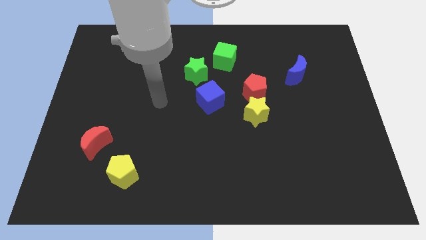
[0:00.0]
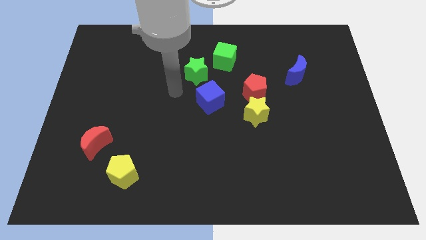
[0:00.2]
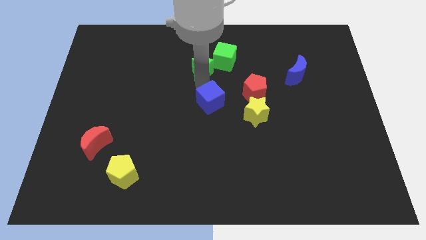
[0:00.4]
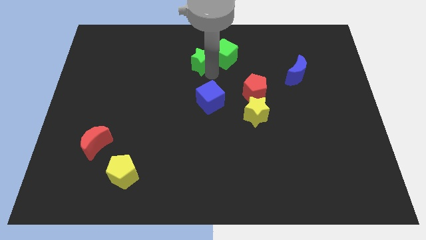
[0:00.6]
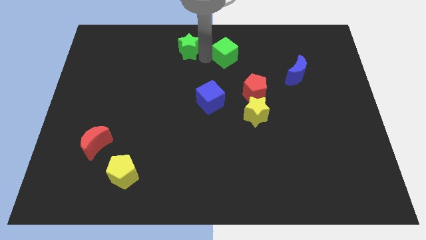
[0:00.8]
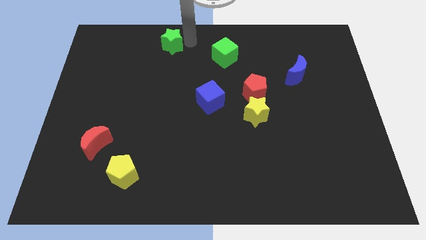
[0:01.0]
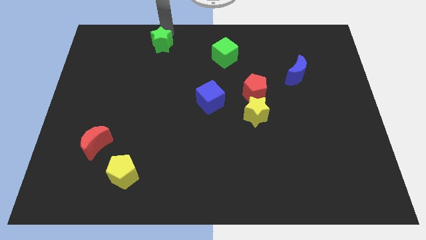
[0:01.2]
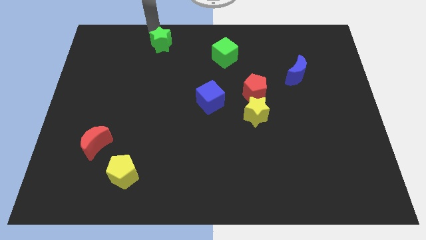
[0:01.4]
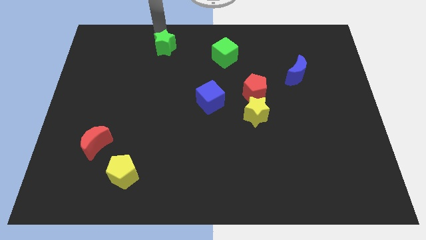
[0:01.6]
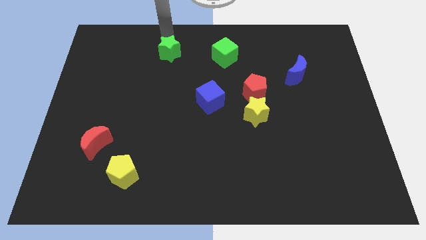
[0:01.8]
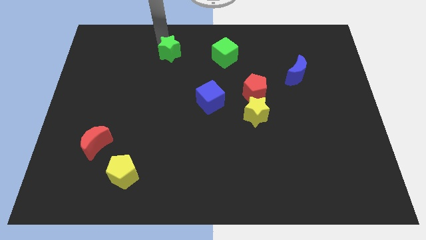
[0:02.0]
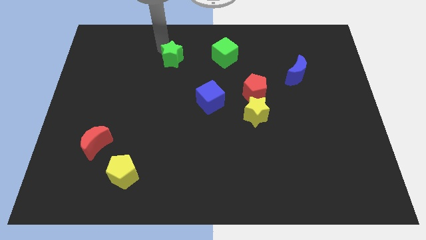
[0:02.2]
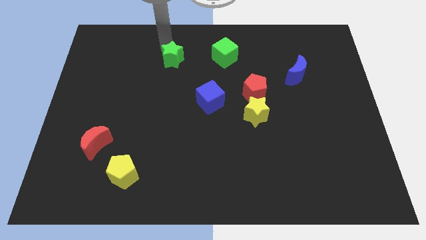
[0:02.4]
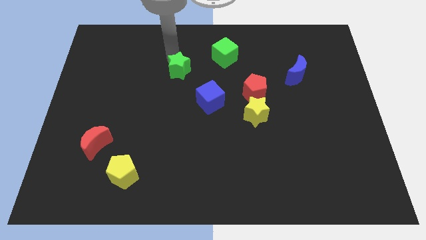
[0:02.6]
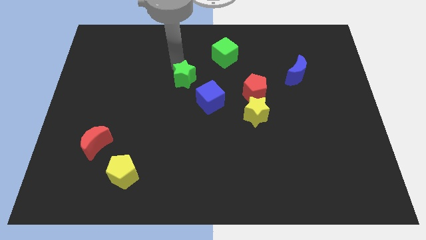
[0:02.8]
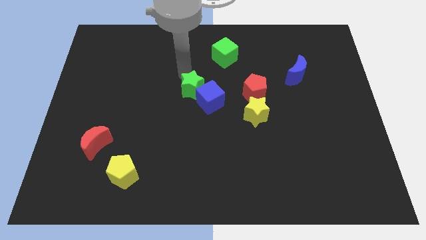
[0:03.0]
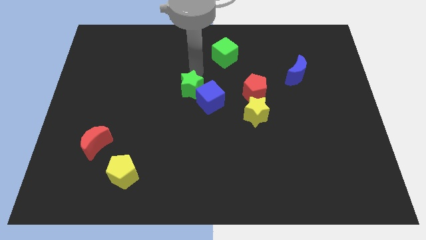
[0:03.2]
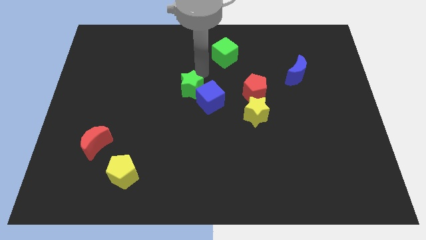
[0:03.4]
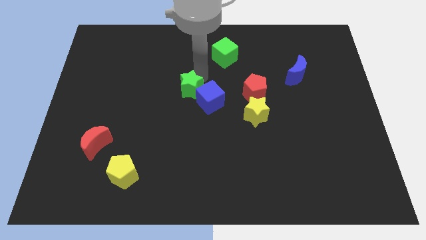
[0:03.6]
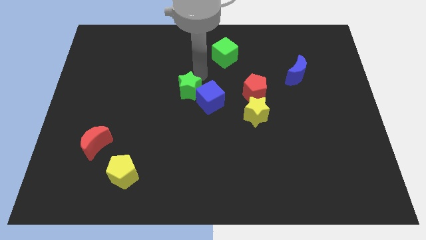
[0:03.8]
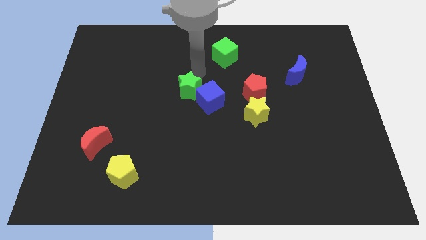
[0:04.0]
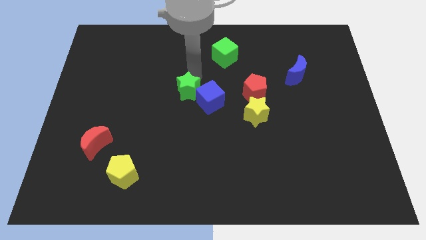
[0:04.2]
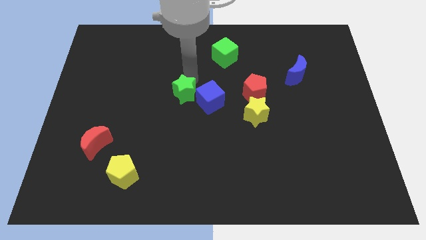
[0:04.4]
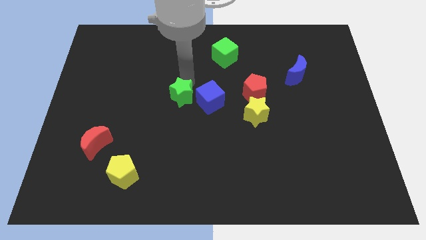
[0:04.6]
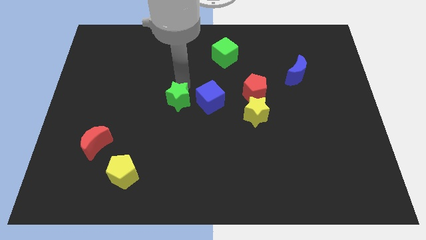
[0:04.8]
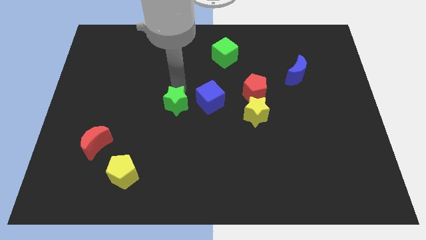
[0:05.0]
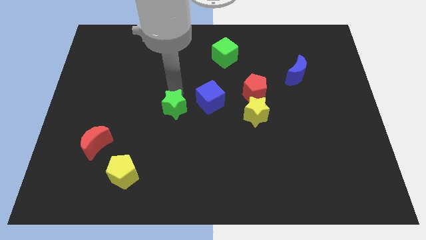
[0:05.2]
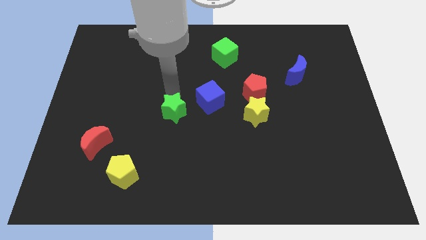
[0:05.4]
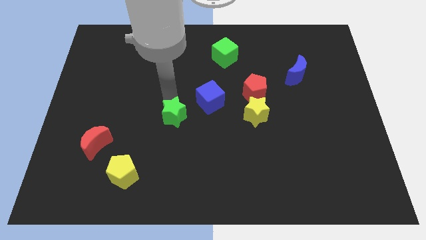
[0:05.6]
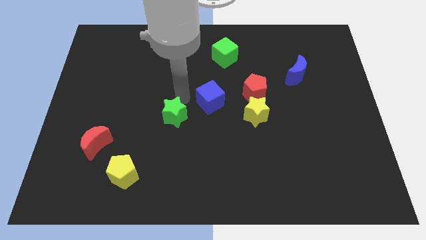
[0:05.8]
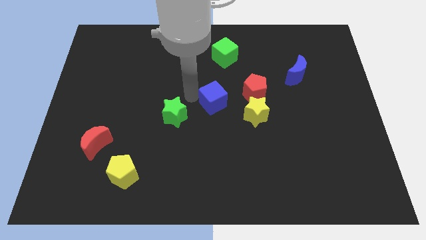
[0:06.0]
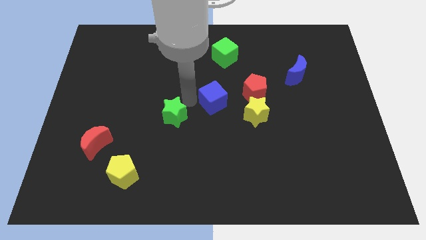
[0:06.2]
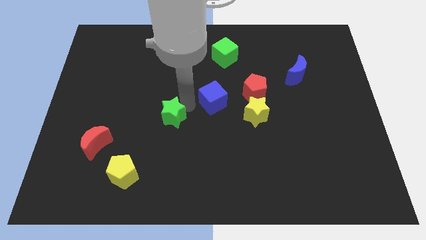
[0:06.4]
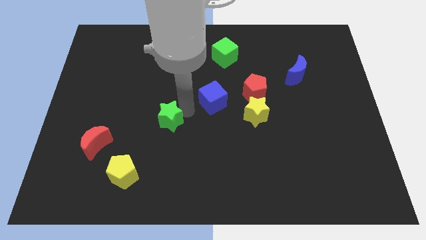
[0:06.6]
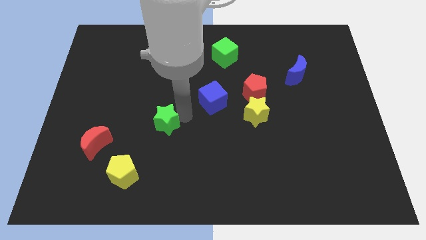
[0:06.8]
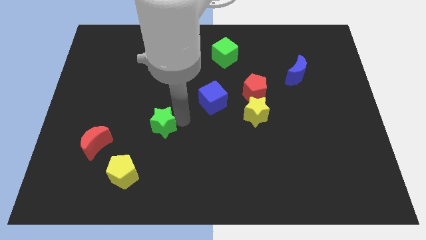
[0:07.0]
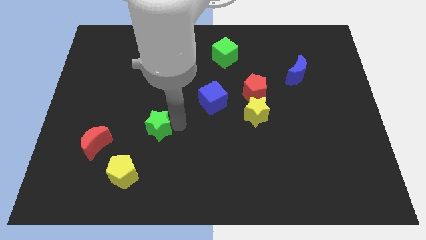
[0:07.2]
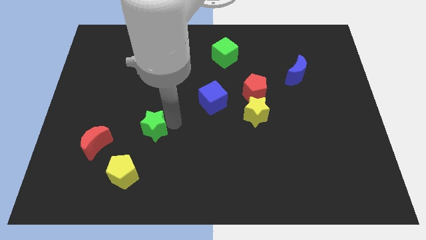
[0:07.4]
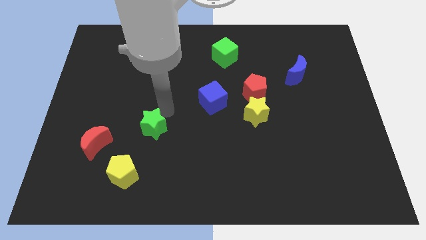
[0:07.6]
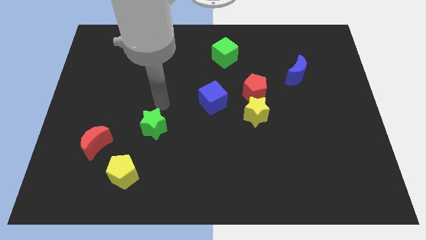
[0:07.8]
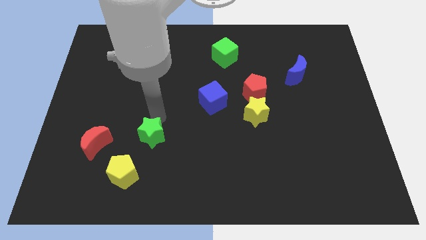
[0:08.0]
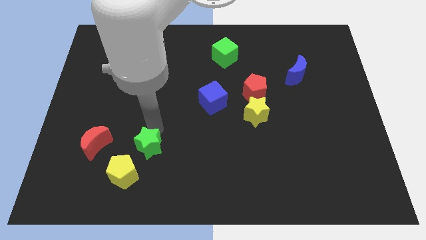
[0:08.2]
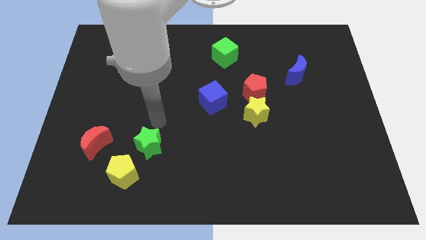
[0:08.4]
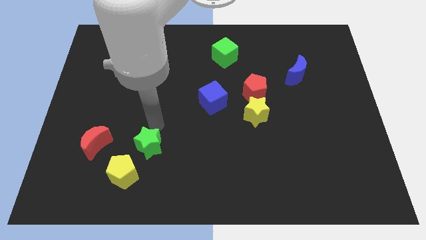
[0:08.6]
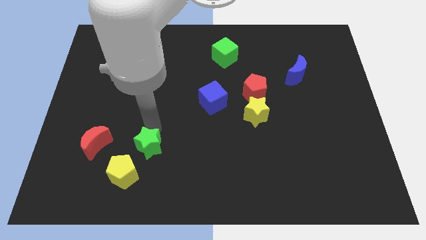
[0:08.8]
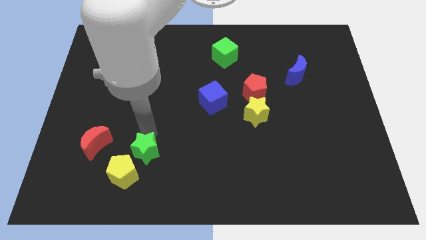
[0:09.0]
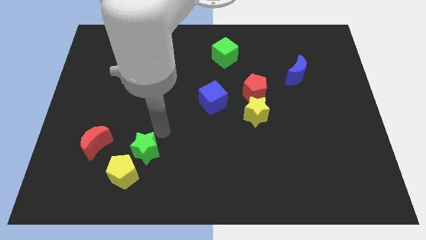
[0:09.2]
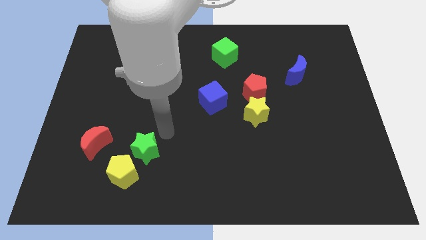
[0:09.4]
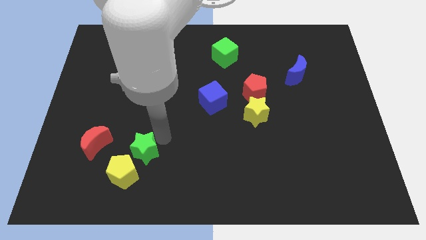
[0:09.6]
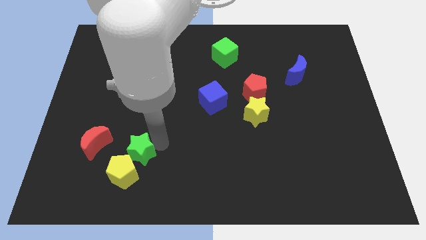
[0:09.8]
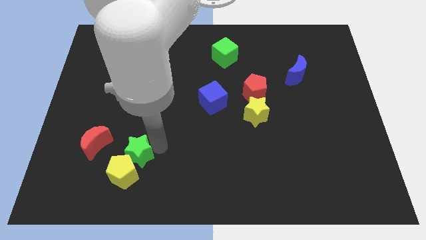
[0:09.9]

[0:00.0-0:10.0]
slide the green star close to the yellow pentagon

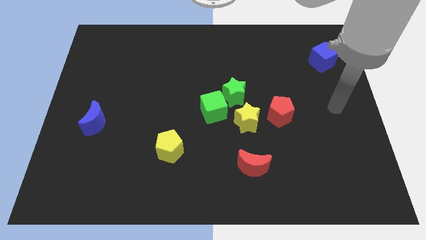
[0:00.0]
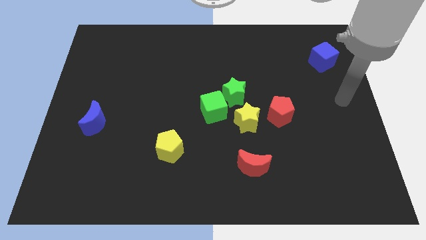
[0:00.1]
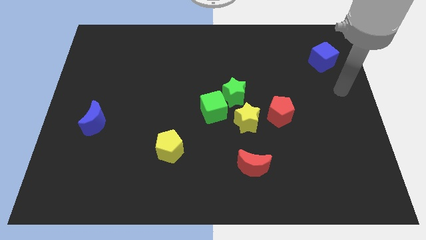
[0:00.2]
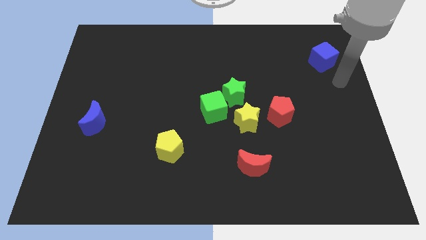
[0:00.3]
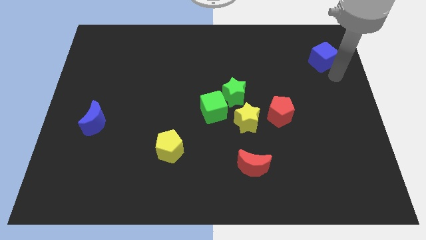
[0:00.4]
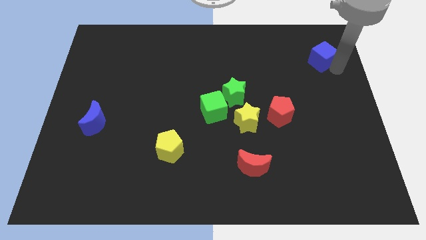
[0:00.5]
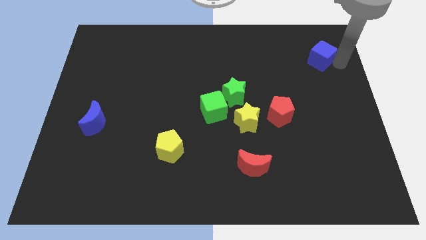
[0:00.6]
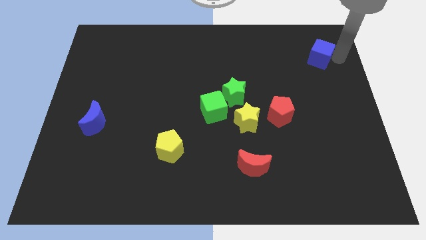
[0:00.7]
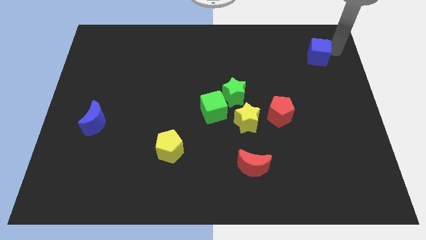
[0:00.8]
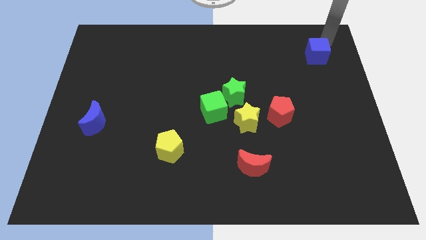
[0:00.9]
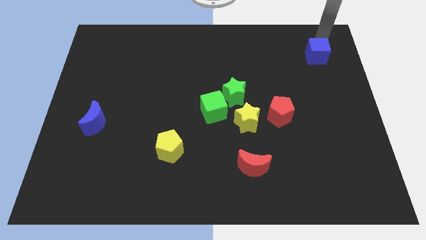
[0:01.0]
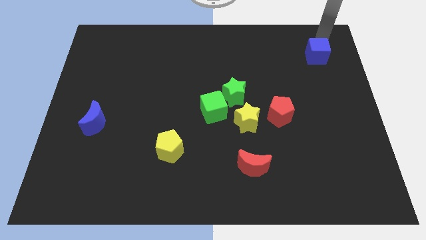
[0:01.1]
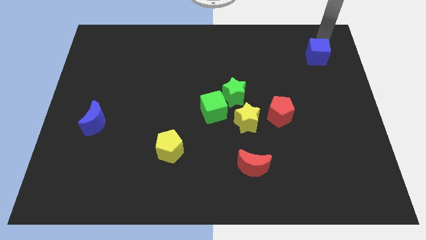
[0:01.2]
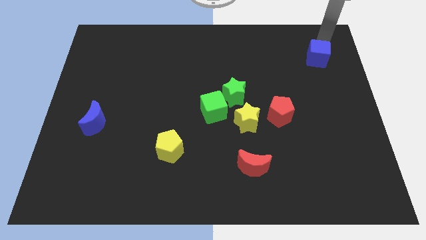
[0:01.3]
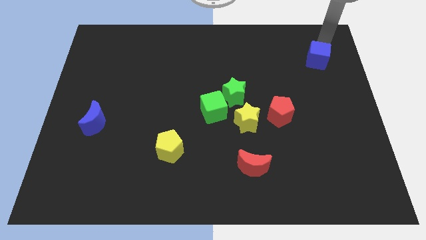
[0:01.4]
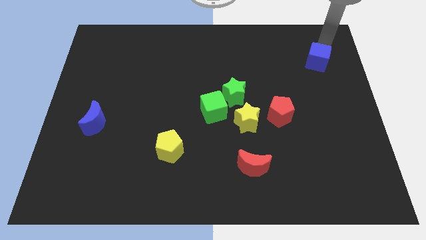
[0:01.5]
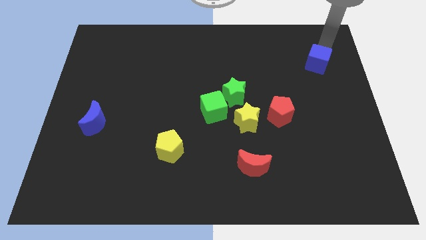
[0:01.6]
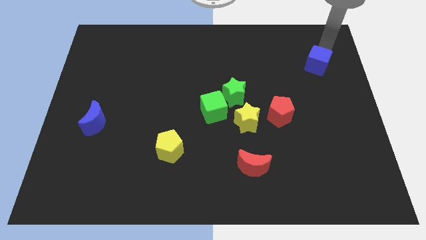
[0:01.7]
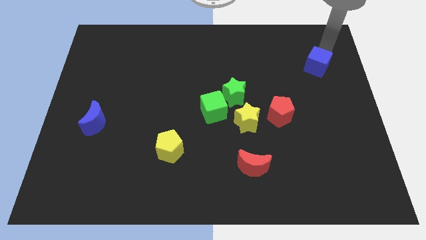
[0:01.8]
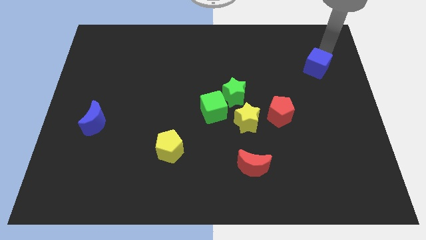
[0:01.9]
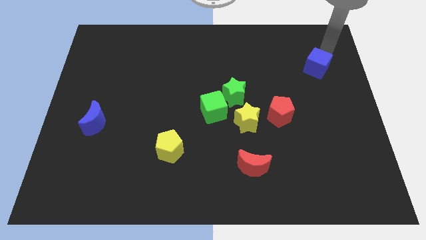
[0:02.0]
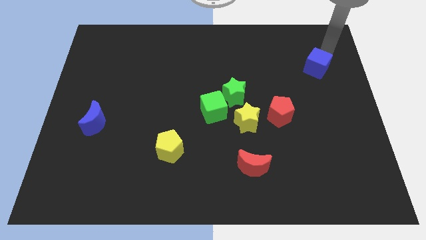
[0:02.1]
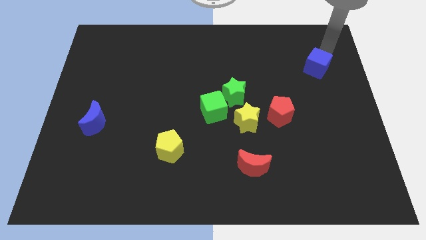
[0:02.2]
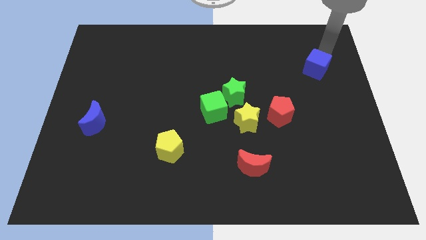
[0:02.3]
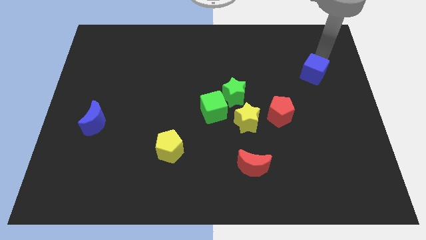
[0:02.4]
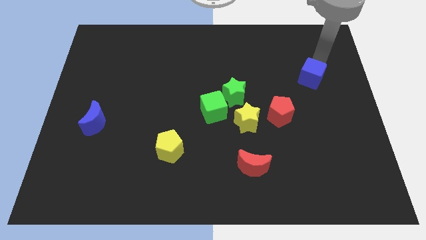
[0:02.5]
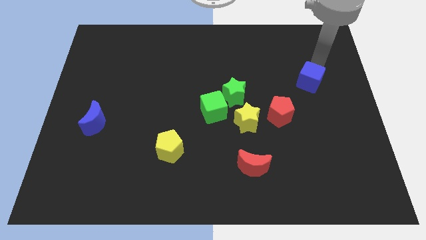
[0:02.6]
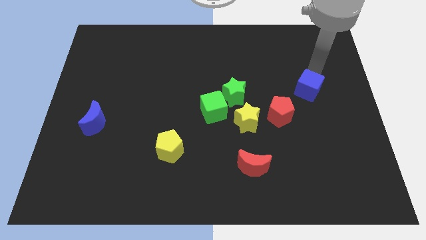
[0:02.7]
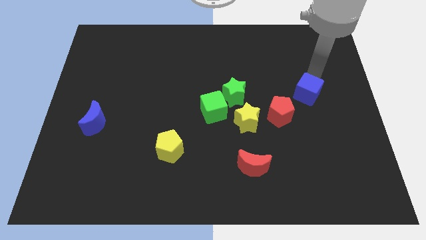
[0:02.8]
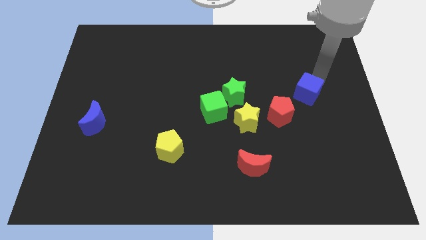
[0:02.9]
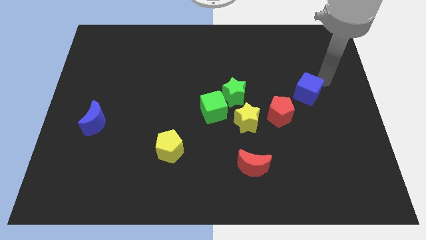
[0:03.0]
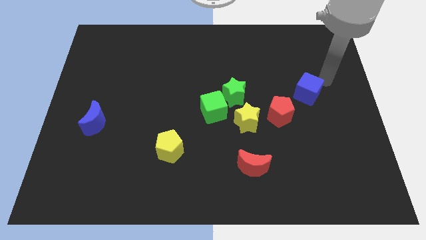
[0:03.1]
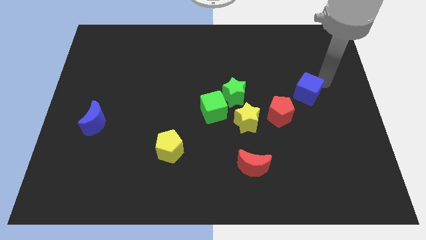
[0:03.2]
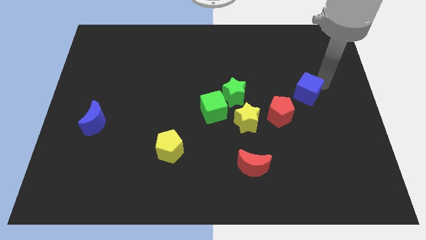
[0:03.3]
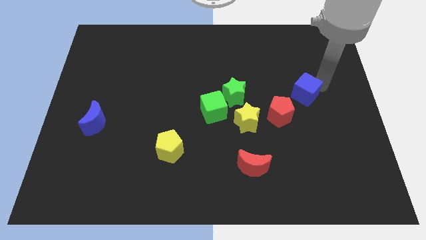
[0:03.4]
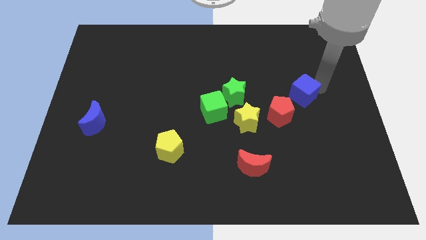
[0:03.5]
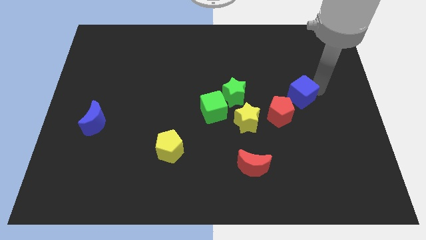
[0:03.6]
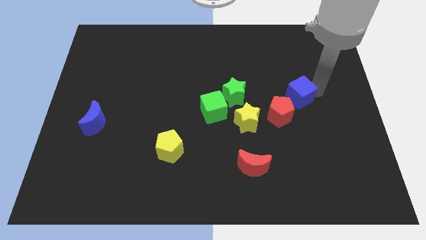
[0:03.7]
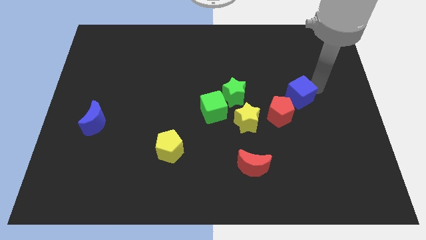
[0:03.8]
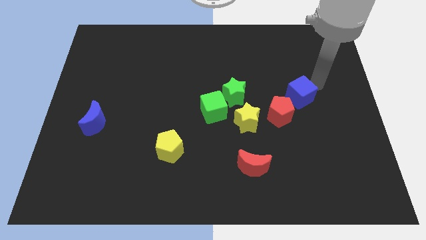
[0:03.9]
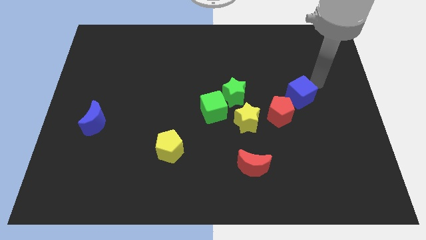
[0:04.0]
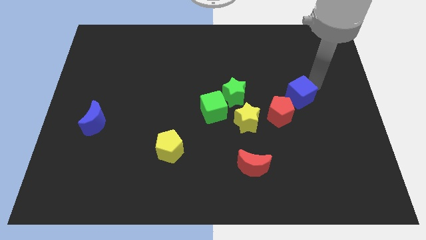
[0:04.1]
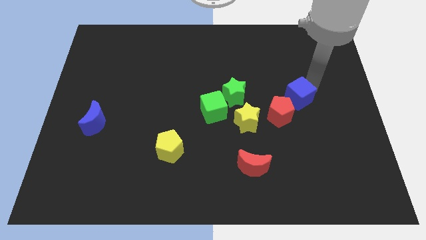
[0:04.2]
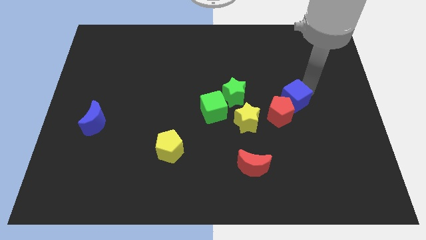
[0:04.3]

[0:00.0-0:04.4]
move the blue cube to the red pentagon
